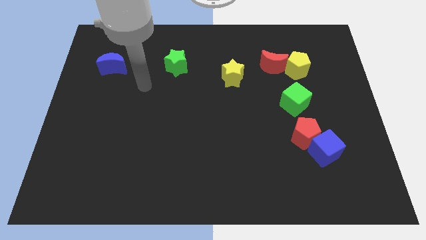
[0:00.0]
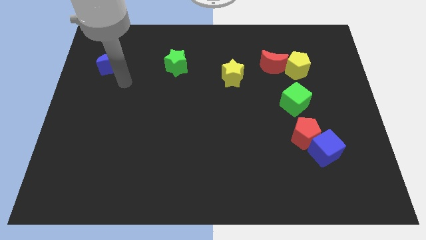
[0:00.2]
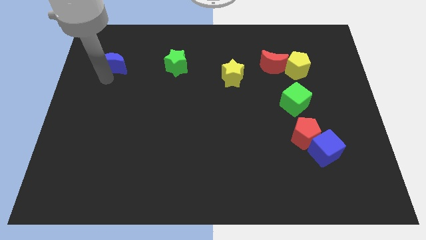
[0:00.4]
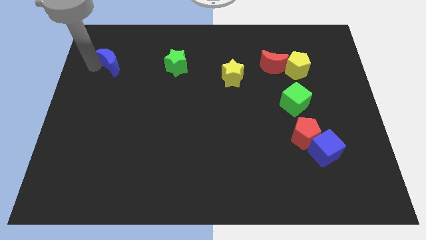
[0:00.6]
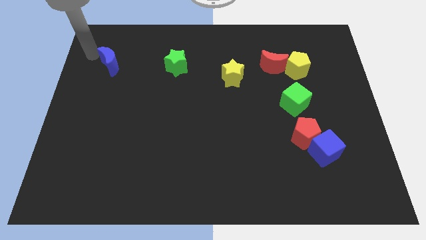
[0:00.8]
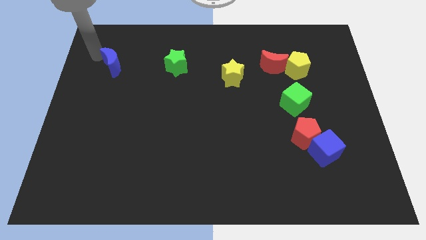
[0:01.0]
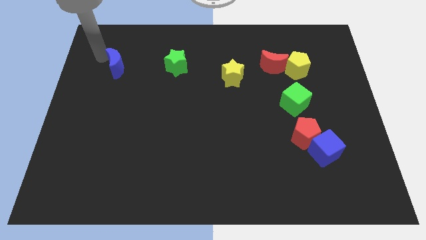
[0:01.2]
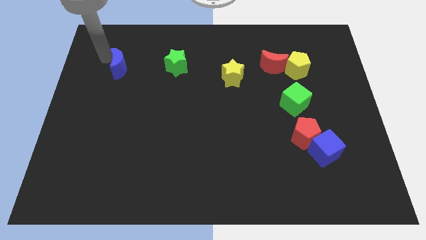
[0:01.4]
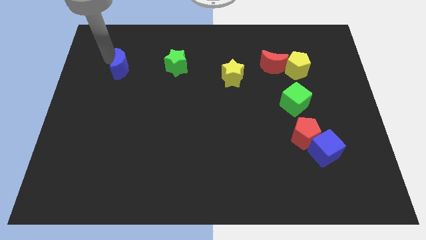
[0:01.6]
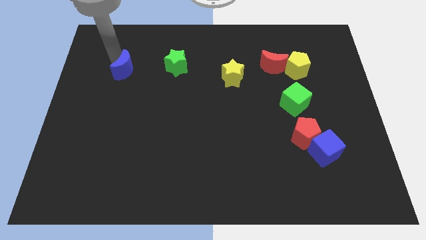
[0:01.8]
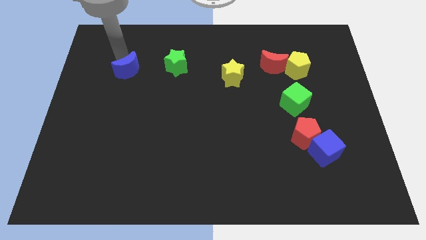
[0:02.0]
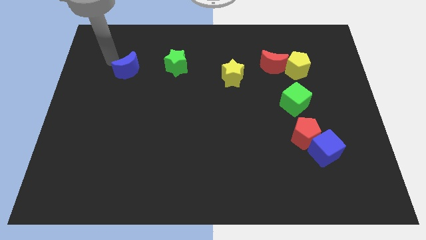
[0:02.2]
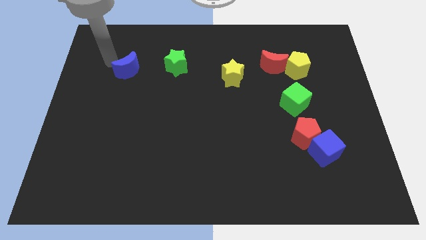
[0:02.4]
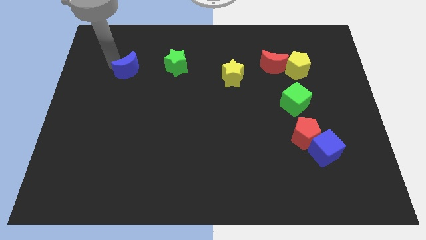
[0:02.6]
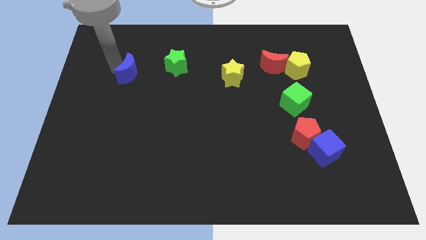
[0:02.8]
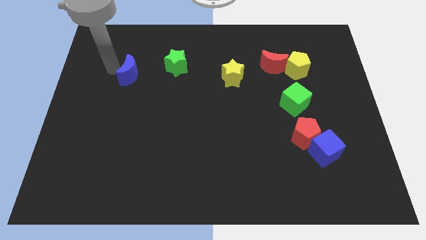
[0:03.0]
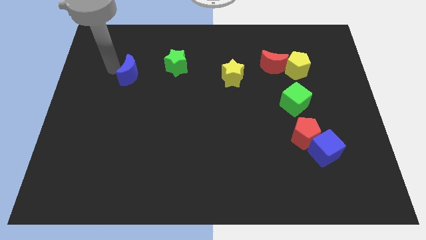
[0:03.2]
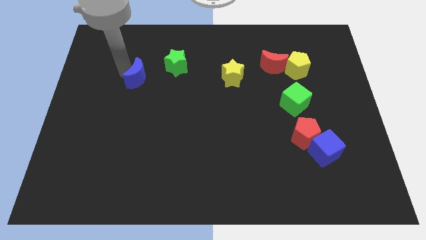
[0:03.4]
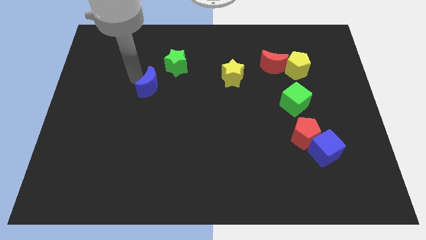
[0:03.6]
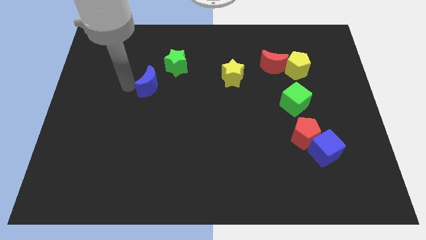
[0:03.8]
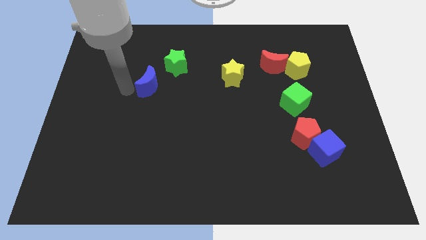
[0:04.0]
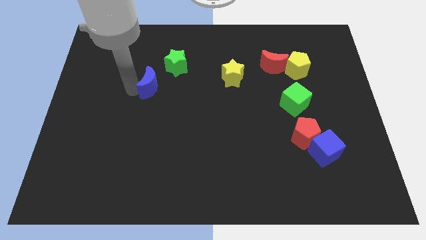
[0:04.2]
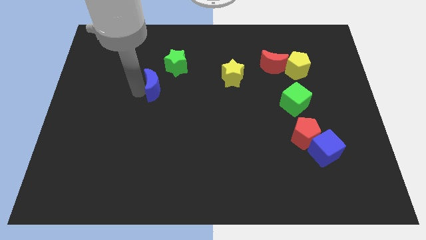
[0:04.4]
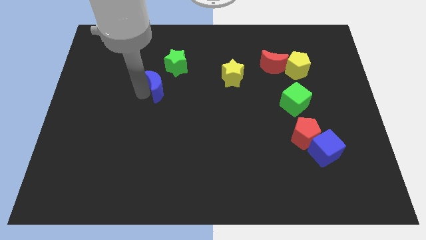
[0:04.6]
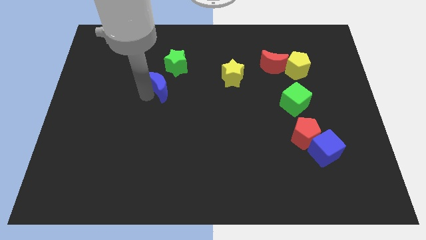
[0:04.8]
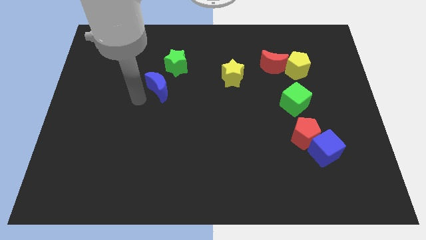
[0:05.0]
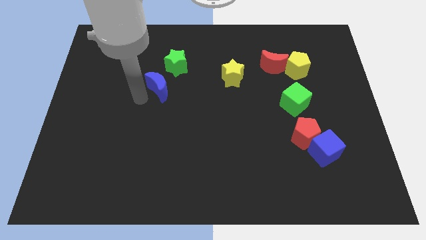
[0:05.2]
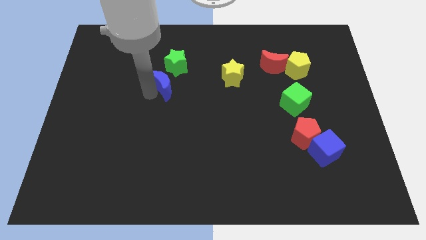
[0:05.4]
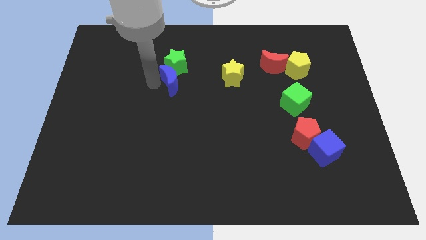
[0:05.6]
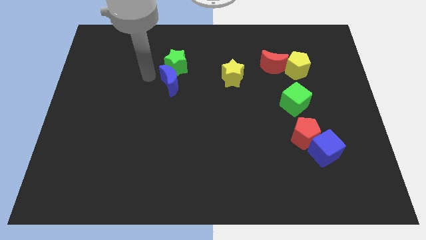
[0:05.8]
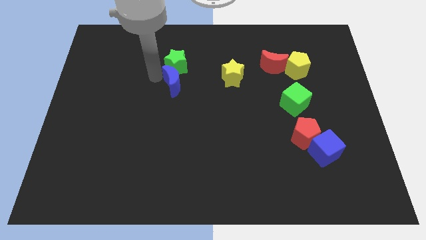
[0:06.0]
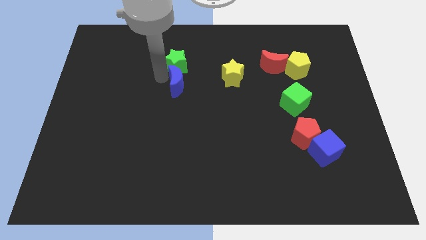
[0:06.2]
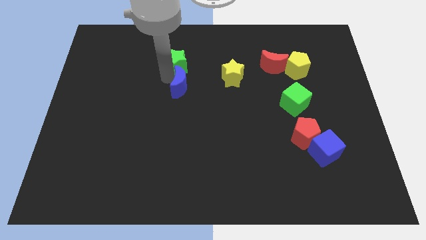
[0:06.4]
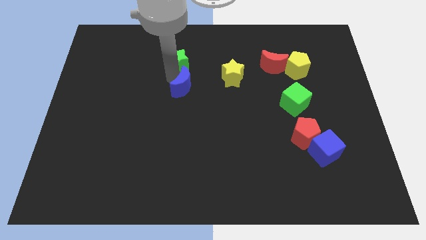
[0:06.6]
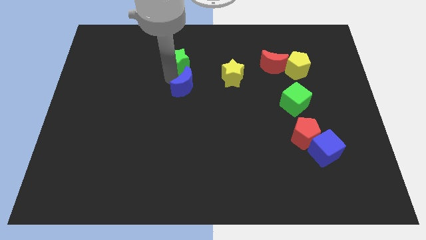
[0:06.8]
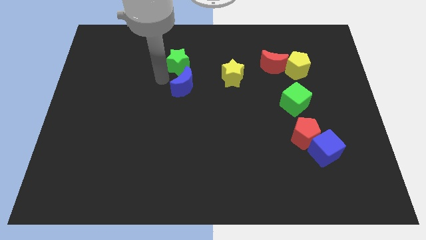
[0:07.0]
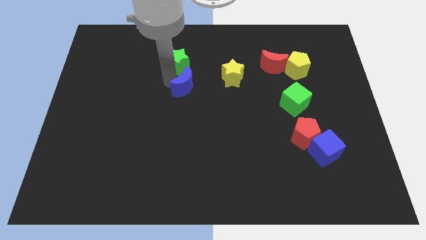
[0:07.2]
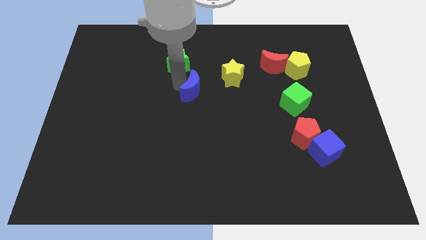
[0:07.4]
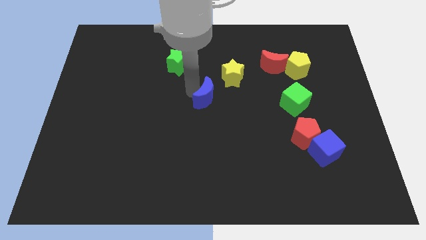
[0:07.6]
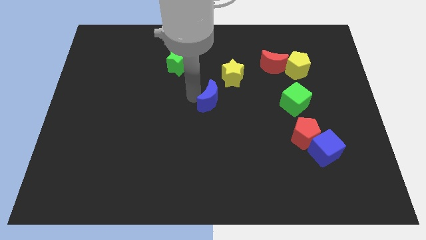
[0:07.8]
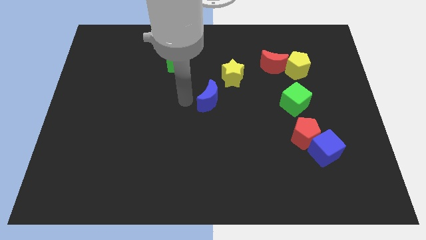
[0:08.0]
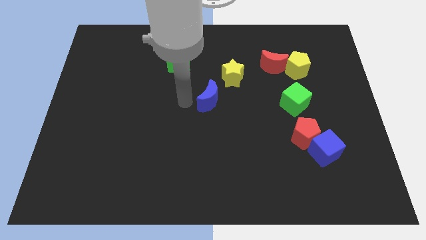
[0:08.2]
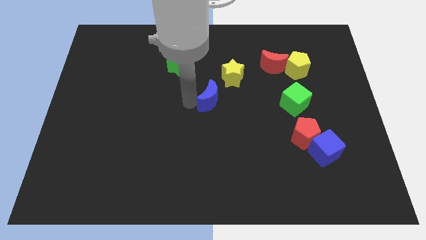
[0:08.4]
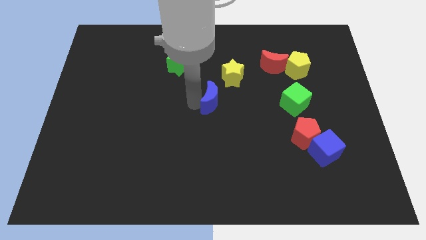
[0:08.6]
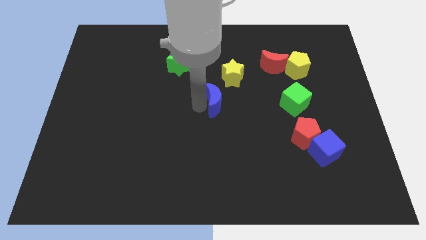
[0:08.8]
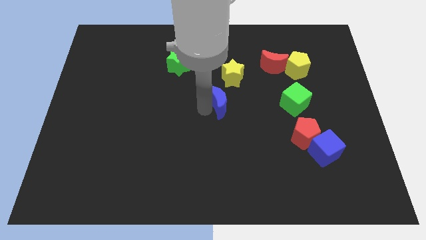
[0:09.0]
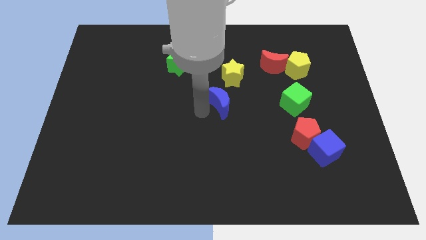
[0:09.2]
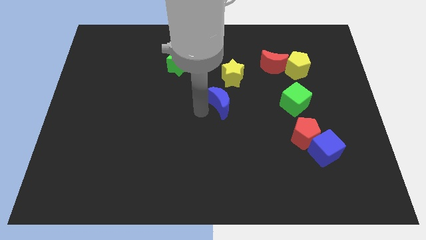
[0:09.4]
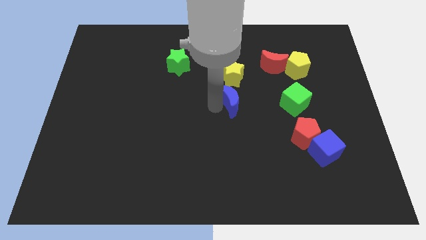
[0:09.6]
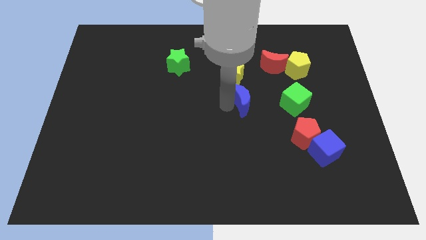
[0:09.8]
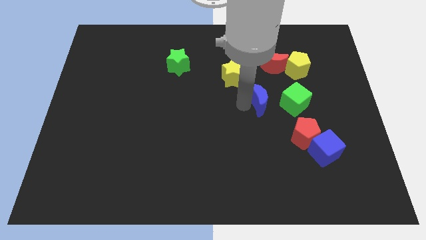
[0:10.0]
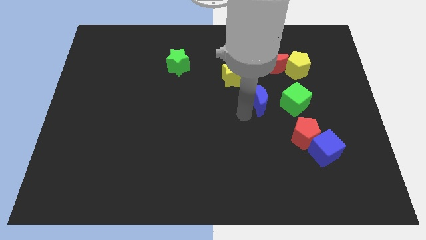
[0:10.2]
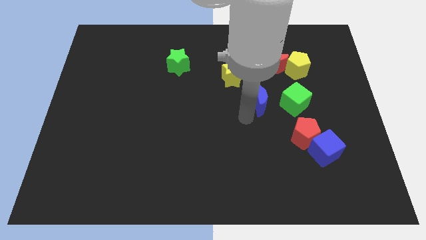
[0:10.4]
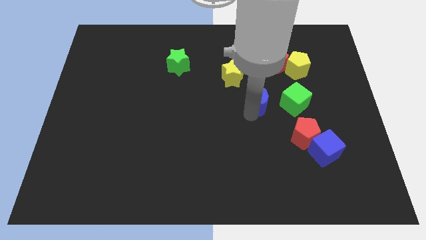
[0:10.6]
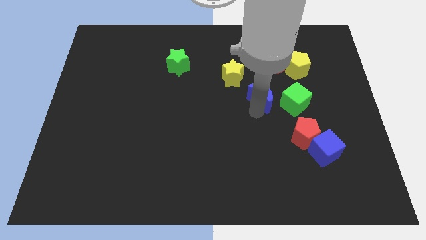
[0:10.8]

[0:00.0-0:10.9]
put the blue moon to the top left side of the green cube

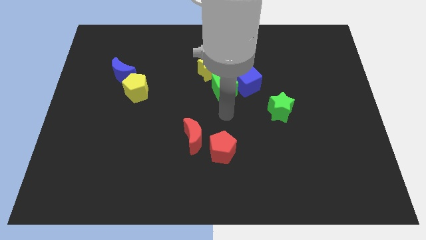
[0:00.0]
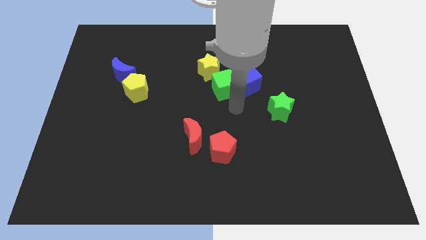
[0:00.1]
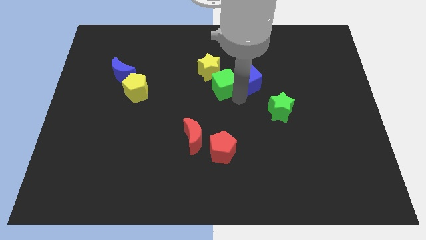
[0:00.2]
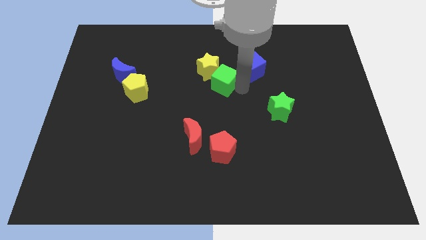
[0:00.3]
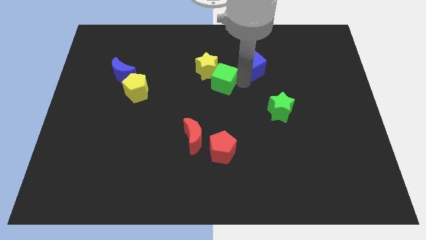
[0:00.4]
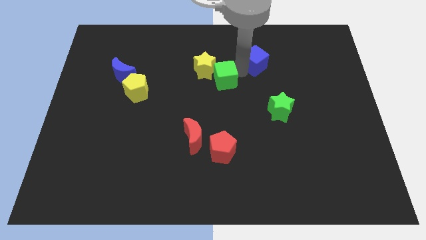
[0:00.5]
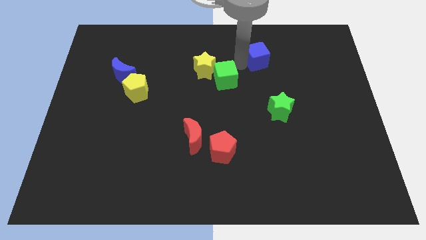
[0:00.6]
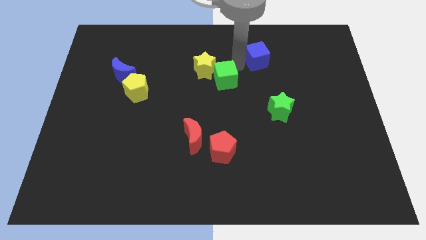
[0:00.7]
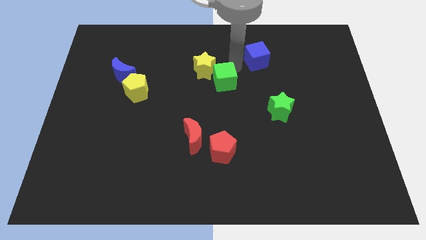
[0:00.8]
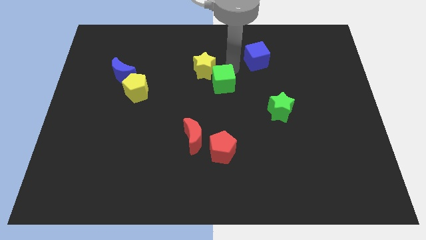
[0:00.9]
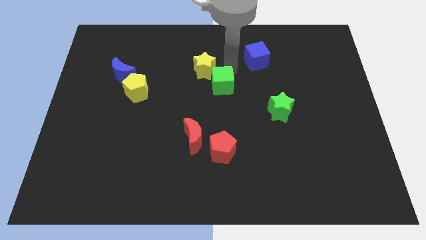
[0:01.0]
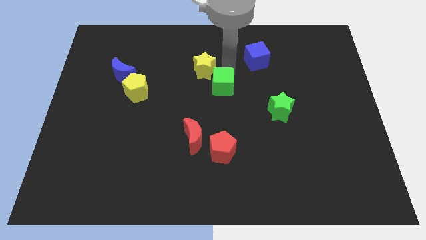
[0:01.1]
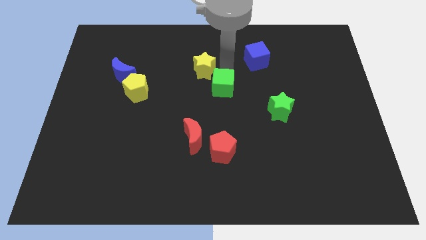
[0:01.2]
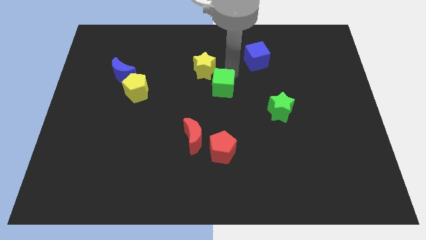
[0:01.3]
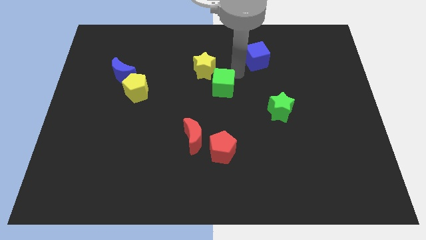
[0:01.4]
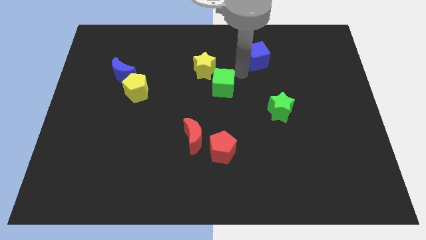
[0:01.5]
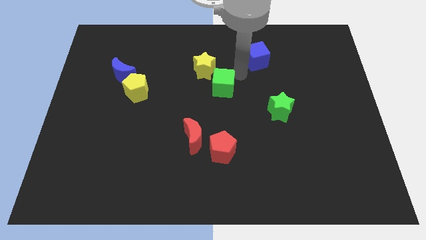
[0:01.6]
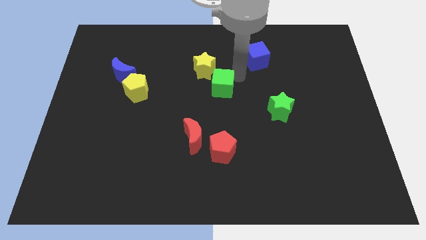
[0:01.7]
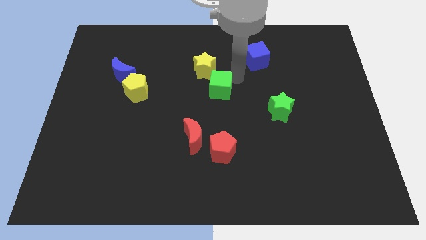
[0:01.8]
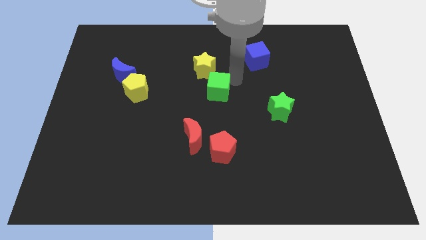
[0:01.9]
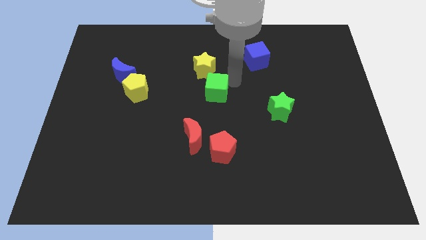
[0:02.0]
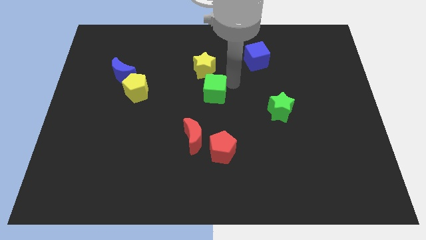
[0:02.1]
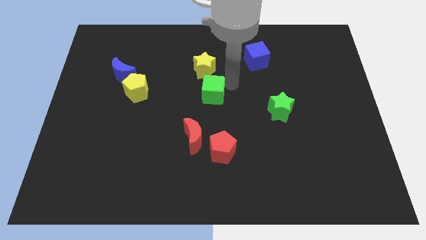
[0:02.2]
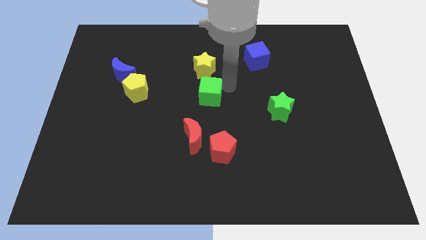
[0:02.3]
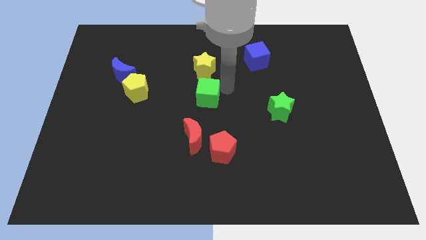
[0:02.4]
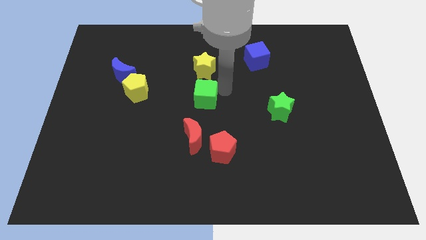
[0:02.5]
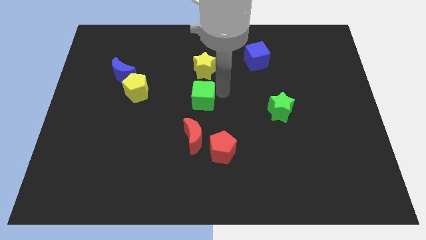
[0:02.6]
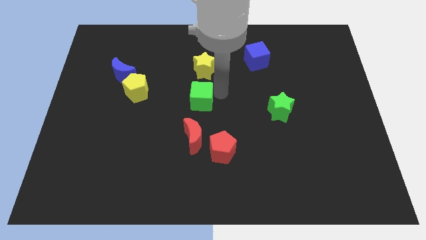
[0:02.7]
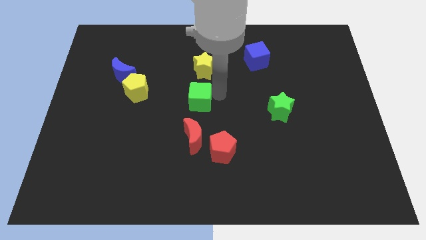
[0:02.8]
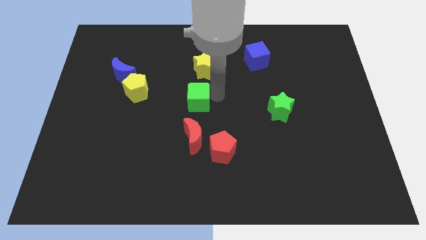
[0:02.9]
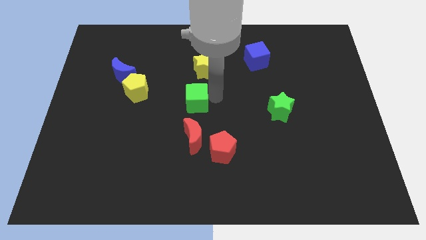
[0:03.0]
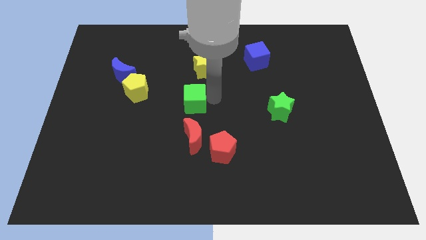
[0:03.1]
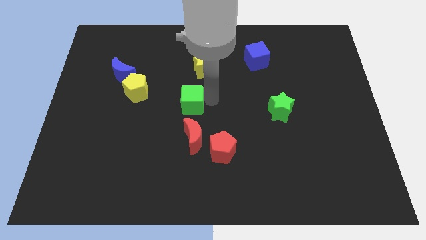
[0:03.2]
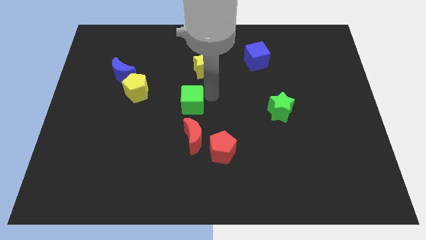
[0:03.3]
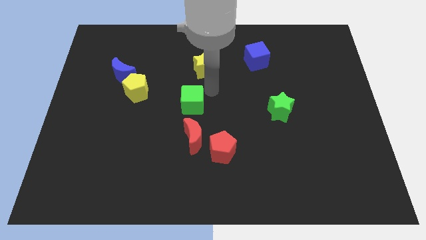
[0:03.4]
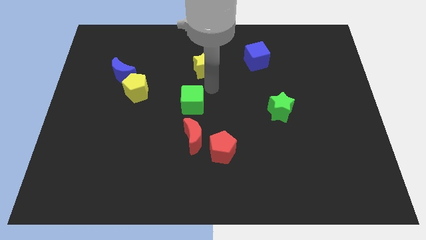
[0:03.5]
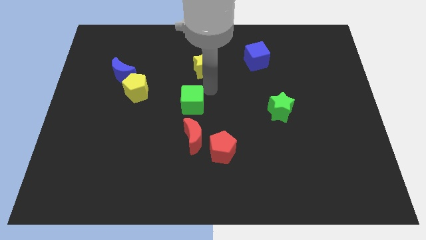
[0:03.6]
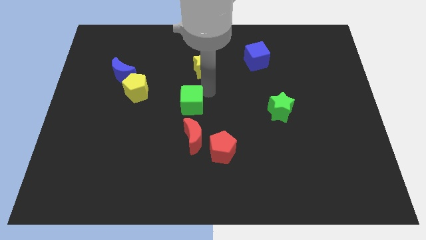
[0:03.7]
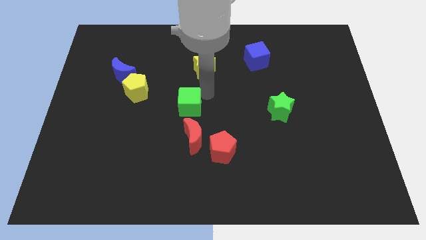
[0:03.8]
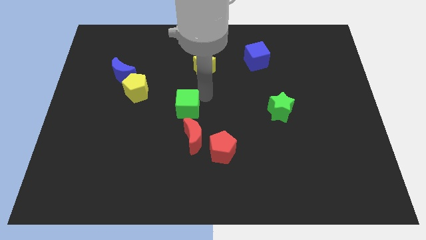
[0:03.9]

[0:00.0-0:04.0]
put the green cube to the top left side of the red moon
